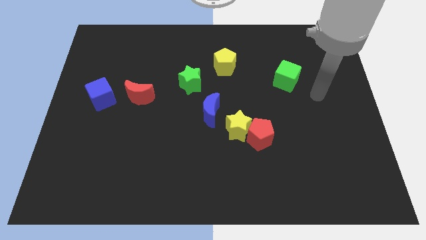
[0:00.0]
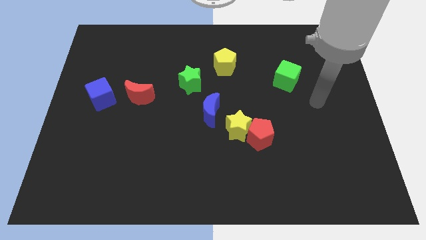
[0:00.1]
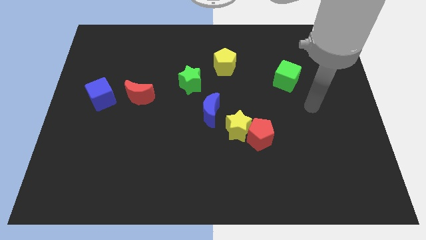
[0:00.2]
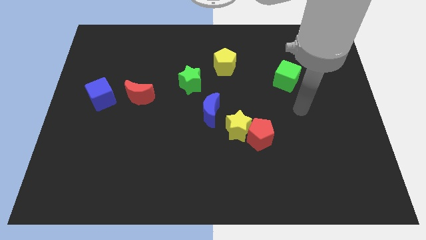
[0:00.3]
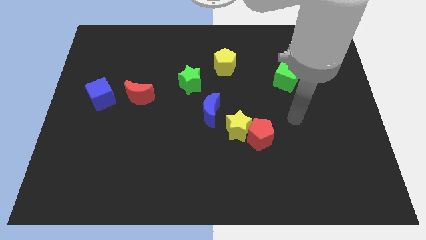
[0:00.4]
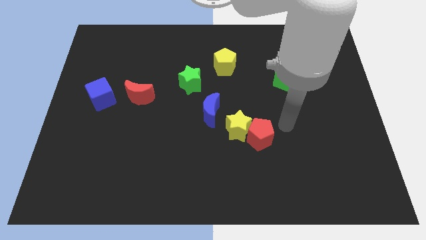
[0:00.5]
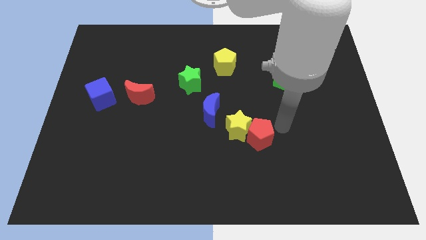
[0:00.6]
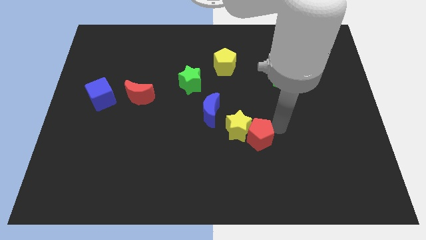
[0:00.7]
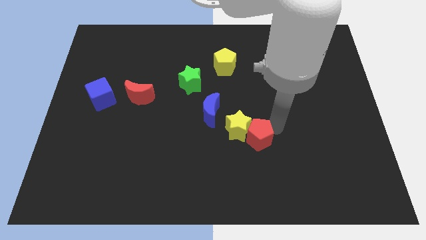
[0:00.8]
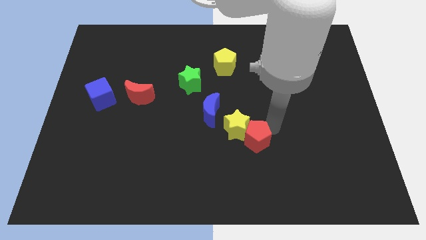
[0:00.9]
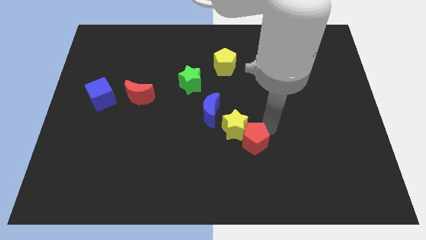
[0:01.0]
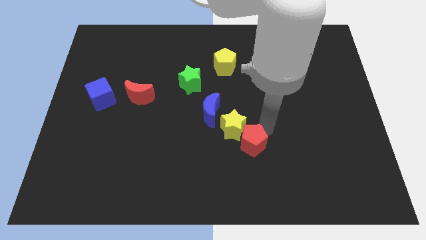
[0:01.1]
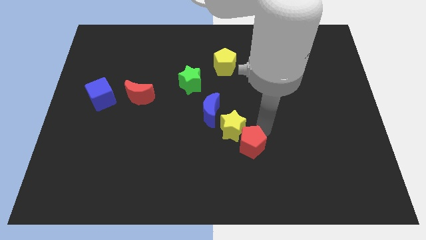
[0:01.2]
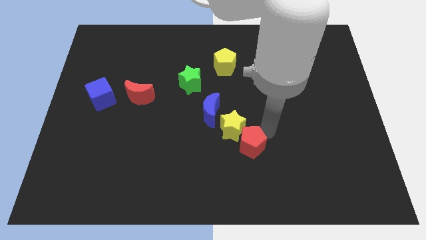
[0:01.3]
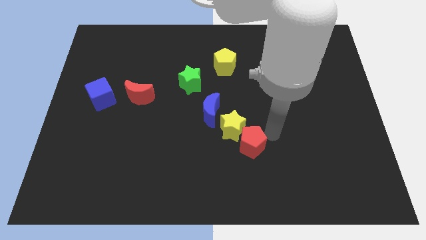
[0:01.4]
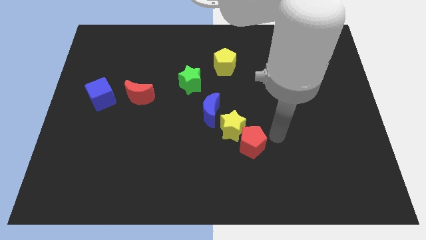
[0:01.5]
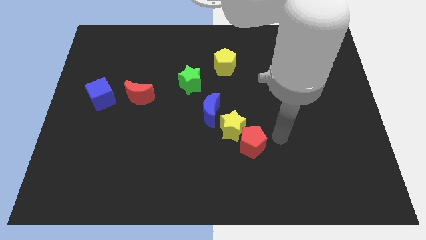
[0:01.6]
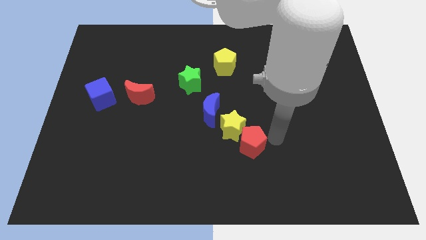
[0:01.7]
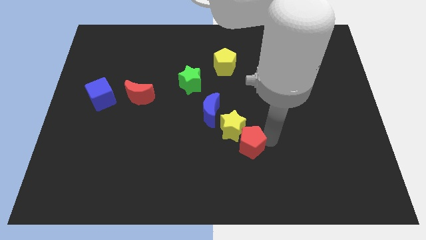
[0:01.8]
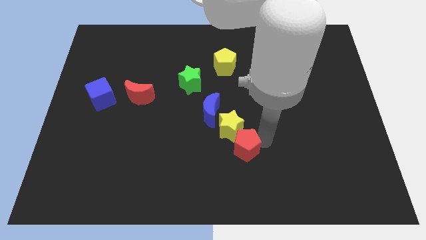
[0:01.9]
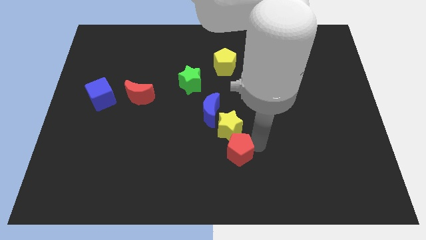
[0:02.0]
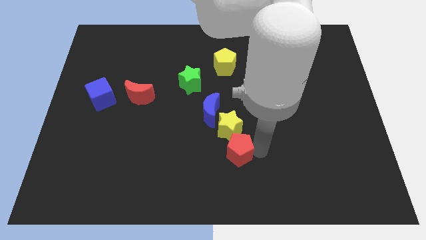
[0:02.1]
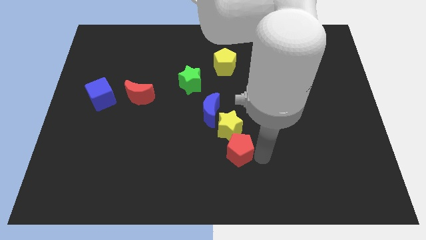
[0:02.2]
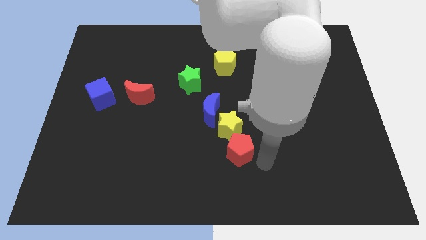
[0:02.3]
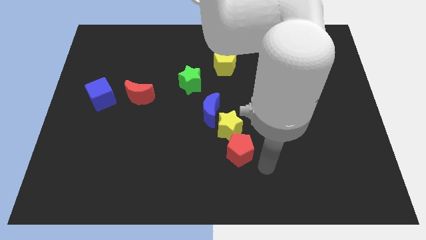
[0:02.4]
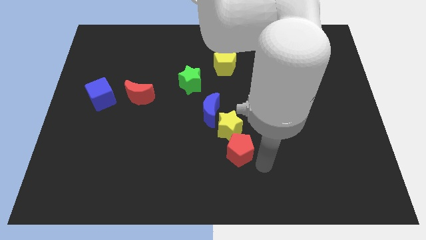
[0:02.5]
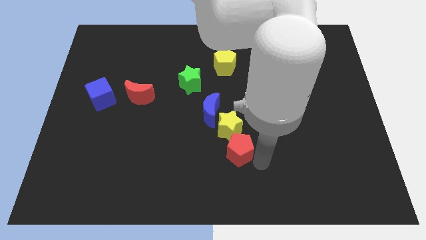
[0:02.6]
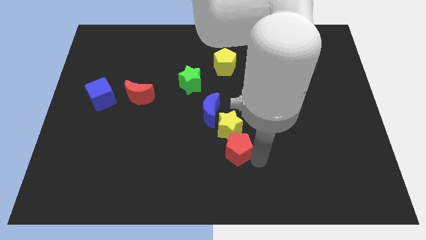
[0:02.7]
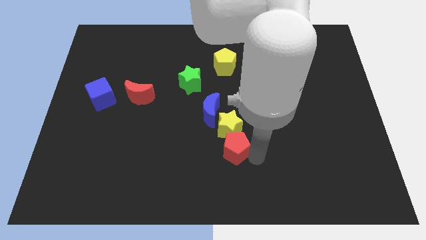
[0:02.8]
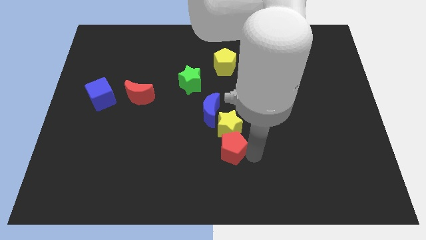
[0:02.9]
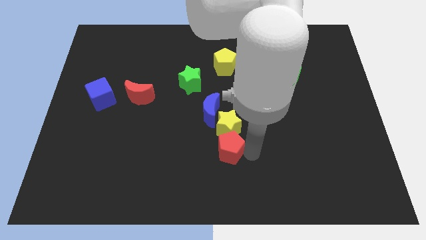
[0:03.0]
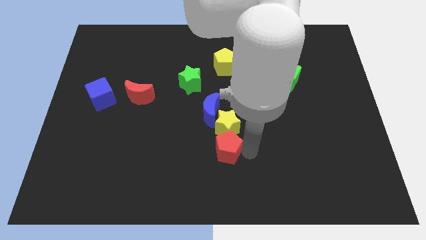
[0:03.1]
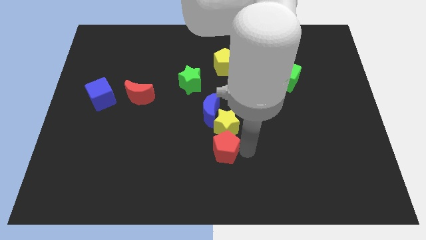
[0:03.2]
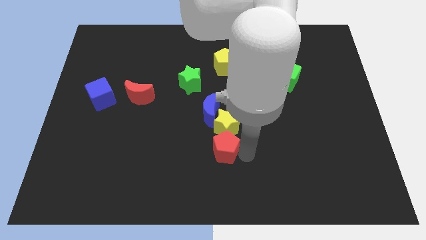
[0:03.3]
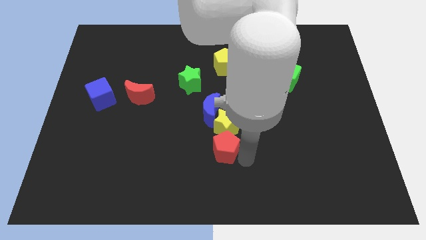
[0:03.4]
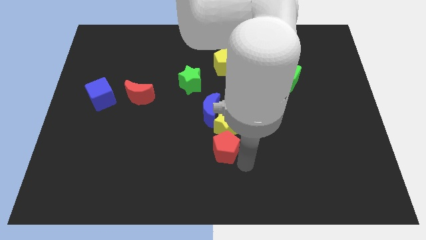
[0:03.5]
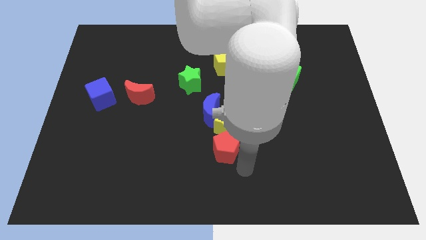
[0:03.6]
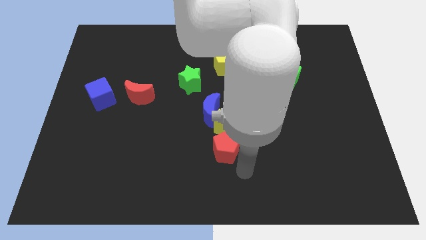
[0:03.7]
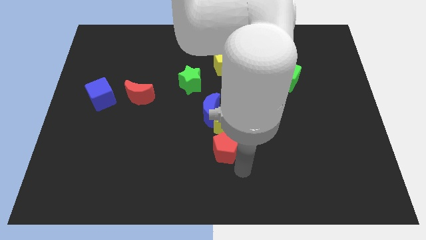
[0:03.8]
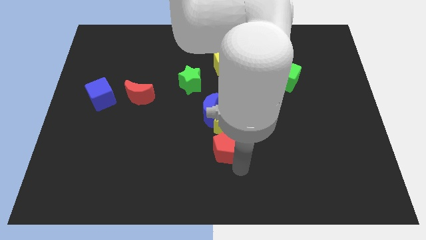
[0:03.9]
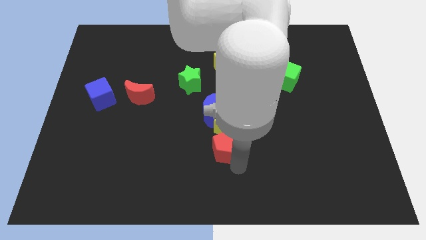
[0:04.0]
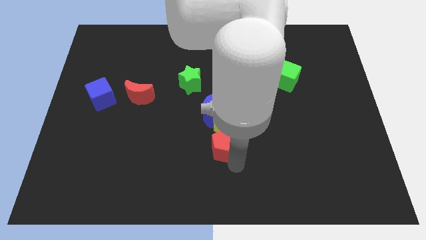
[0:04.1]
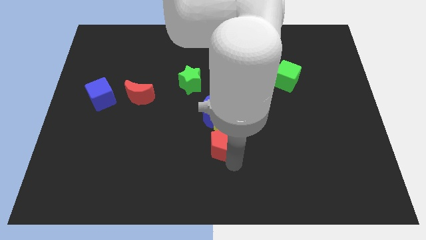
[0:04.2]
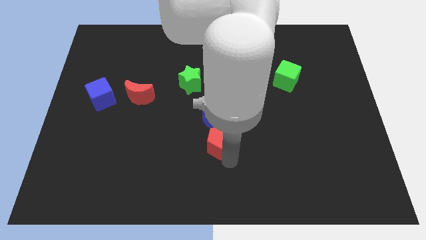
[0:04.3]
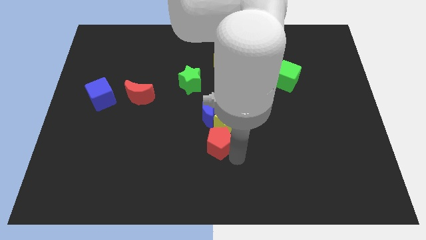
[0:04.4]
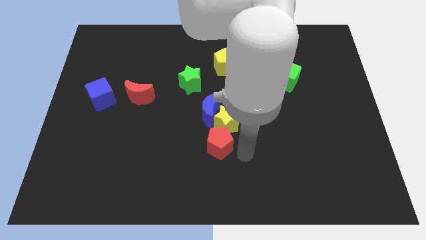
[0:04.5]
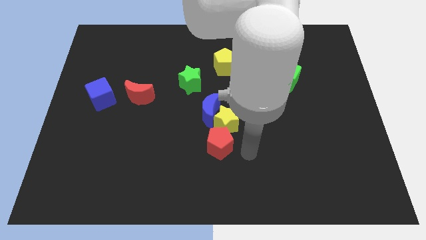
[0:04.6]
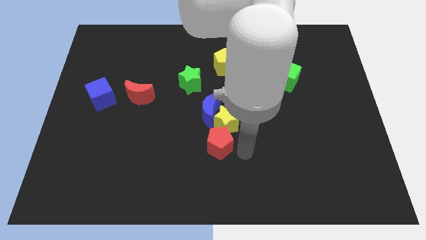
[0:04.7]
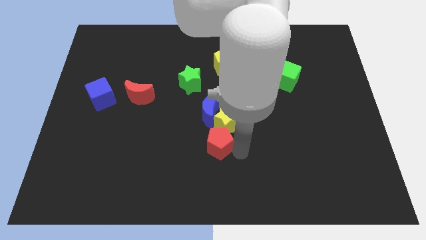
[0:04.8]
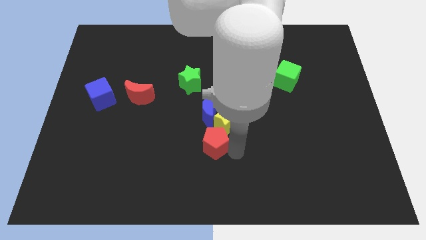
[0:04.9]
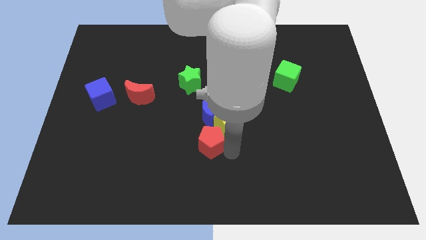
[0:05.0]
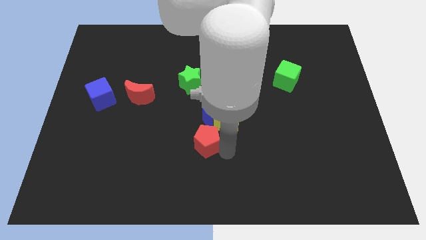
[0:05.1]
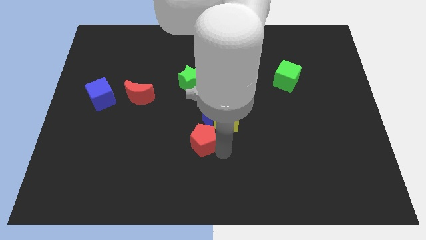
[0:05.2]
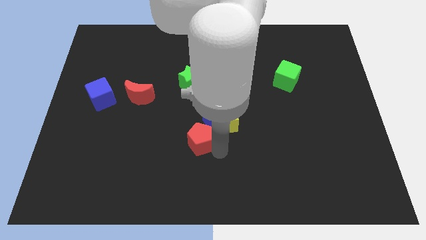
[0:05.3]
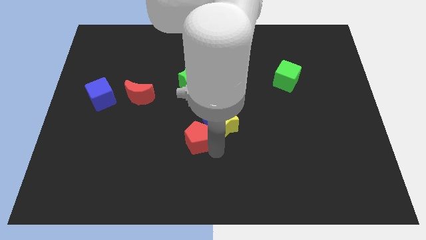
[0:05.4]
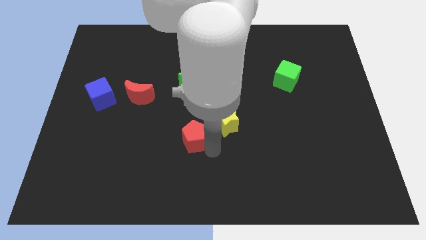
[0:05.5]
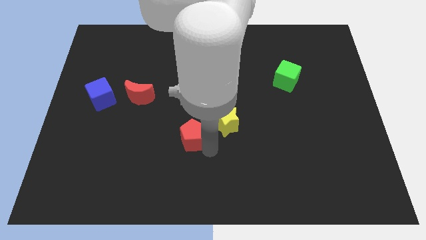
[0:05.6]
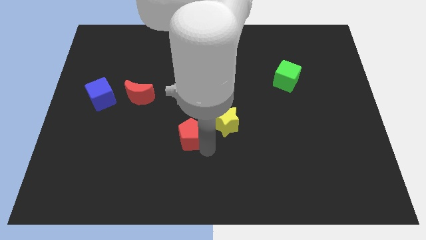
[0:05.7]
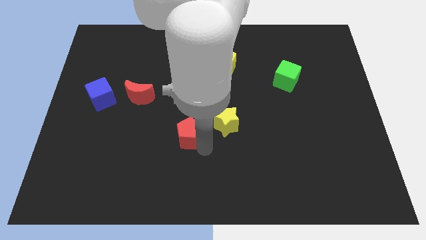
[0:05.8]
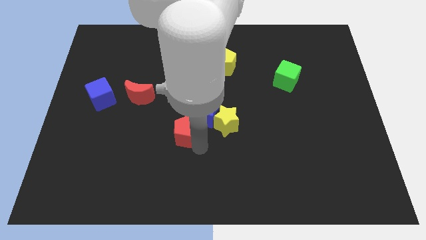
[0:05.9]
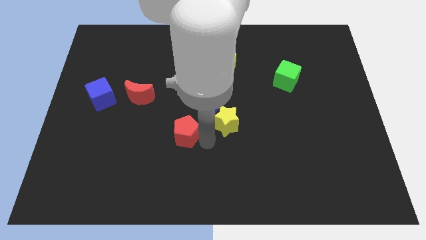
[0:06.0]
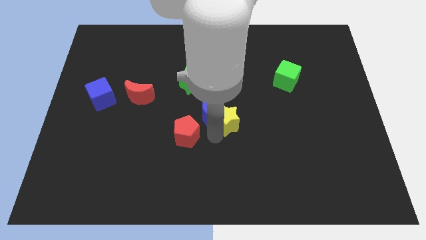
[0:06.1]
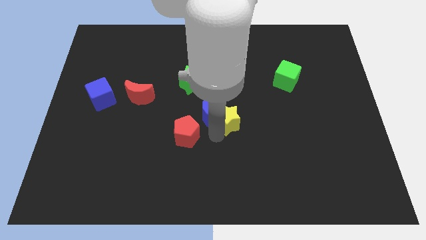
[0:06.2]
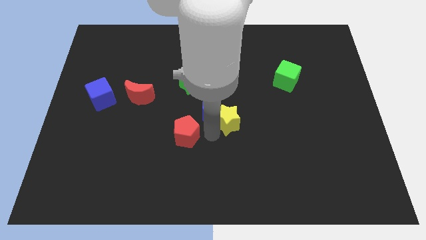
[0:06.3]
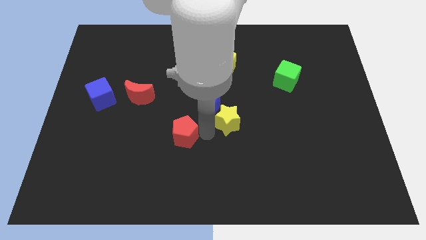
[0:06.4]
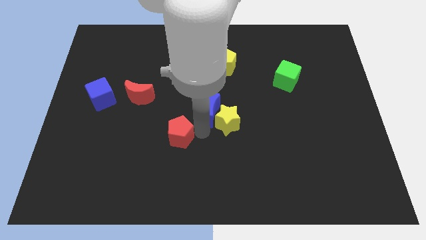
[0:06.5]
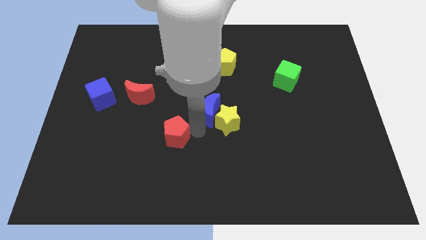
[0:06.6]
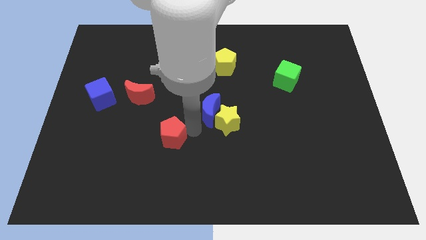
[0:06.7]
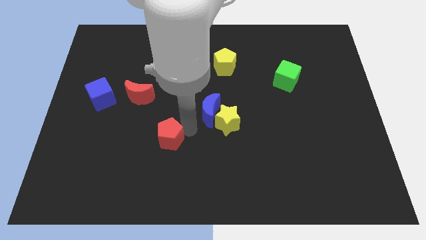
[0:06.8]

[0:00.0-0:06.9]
push the red pentagon left

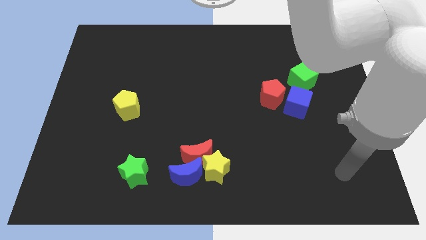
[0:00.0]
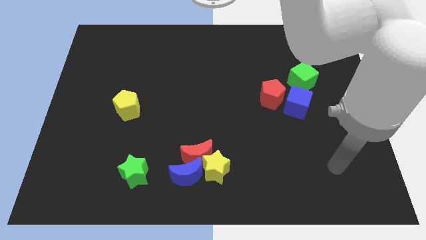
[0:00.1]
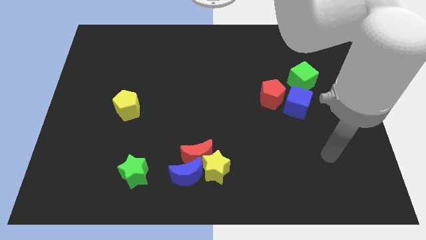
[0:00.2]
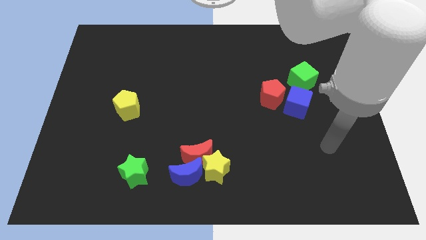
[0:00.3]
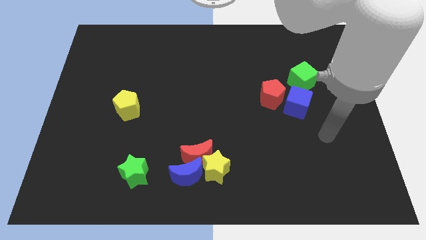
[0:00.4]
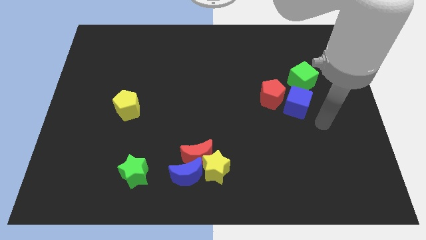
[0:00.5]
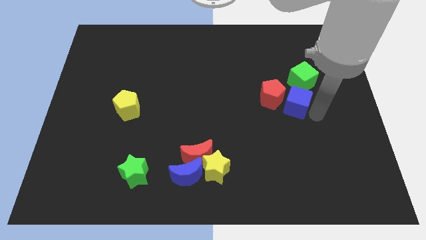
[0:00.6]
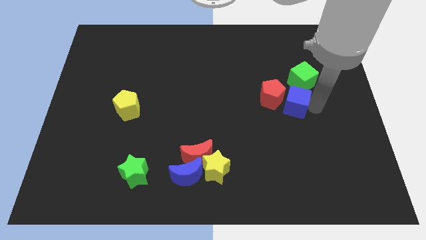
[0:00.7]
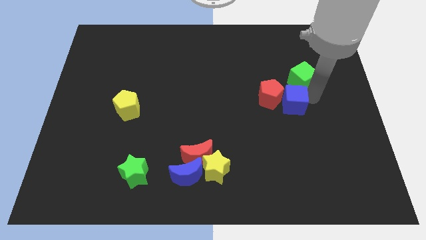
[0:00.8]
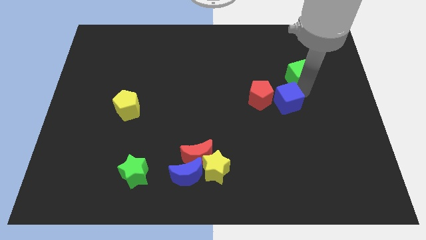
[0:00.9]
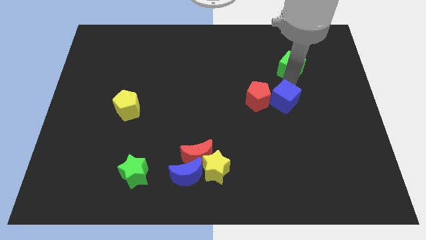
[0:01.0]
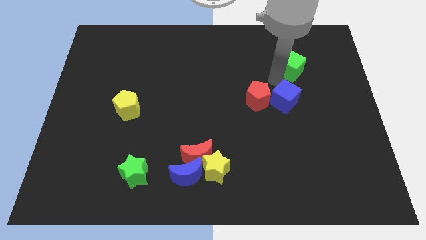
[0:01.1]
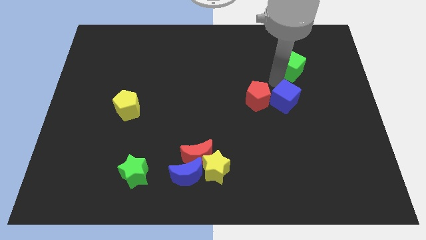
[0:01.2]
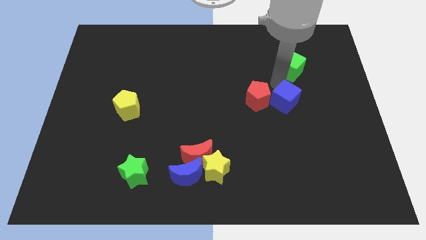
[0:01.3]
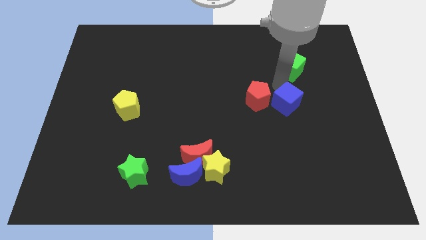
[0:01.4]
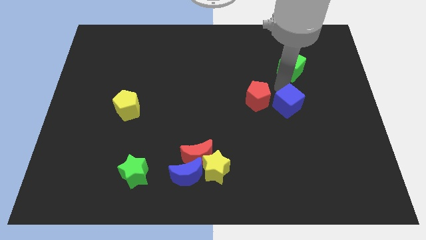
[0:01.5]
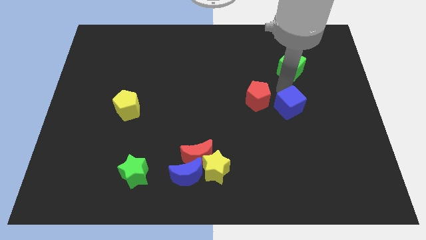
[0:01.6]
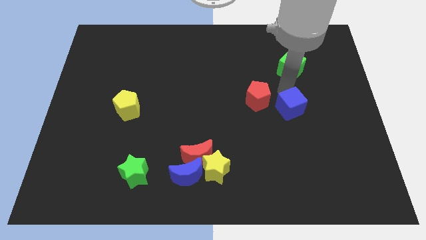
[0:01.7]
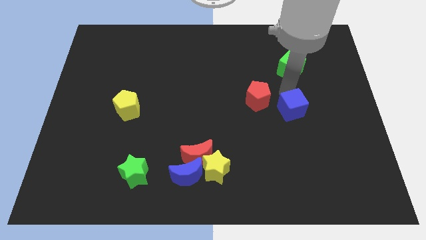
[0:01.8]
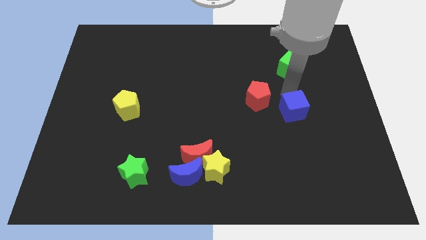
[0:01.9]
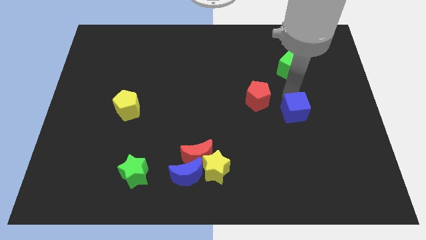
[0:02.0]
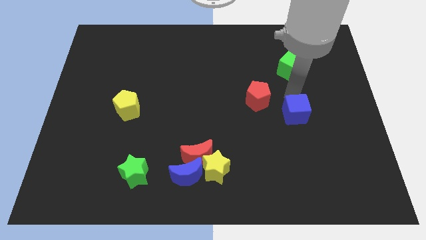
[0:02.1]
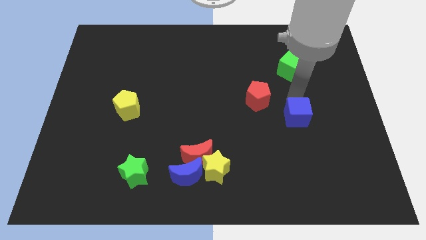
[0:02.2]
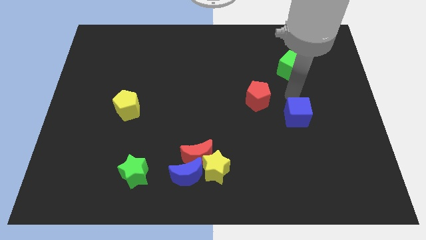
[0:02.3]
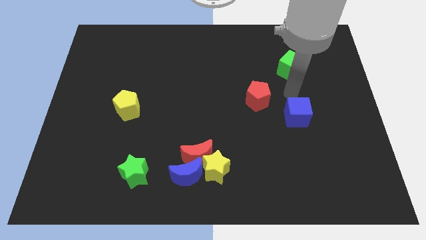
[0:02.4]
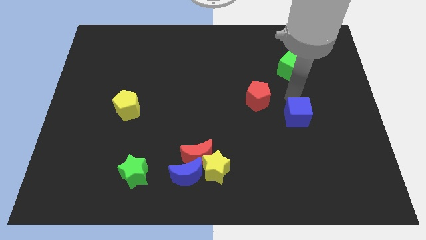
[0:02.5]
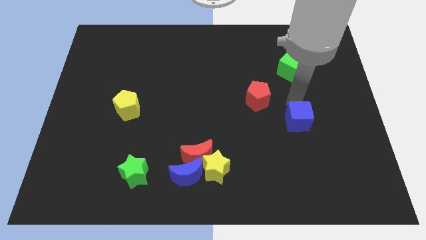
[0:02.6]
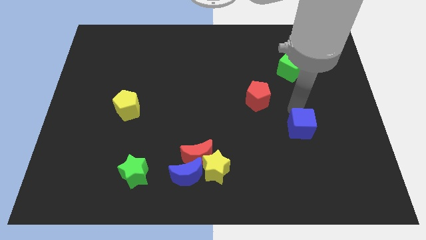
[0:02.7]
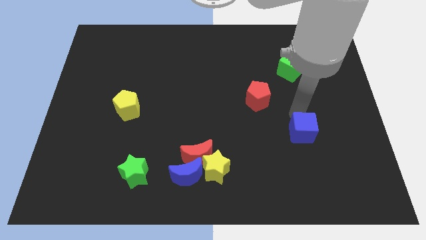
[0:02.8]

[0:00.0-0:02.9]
slightly move the blue cube down
